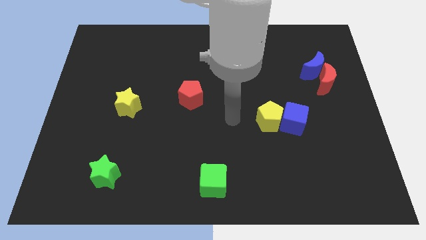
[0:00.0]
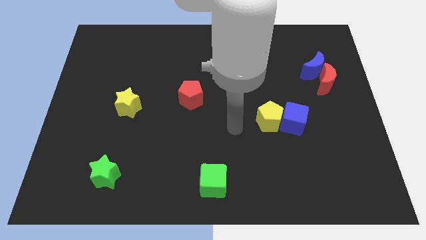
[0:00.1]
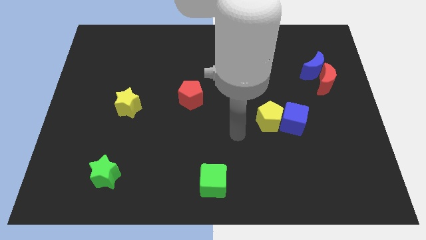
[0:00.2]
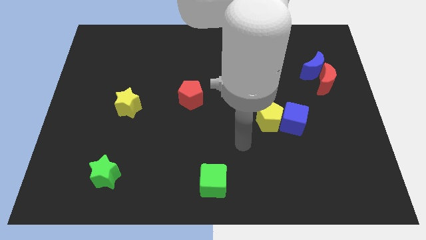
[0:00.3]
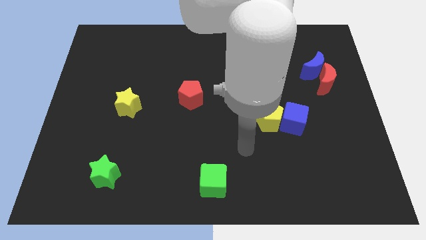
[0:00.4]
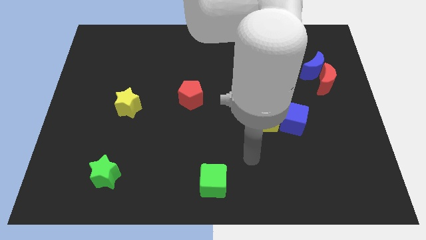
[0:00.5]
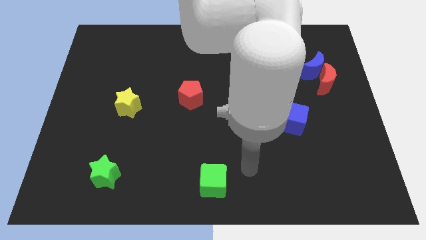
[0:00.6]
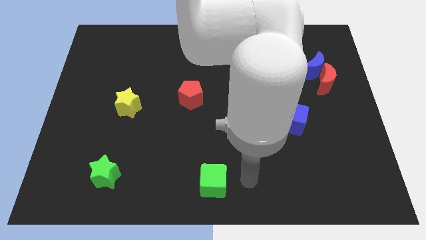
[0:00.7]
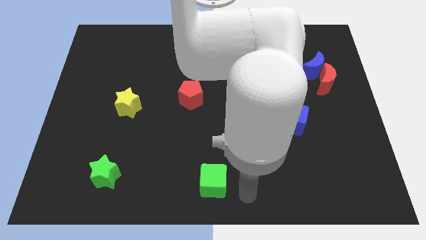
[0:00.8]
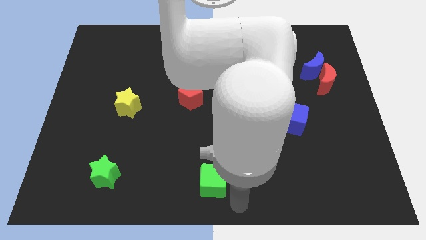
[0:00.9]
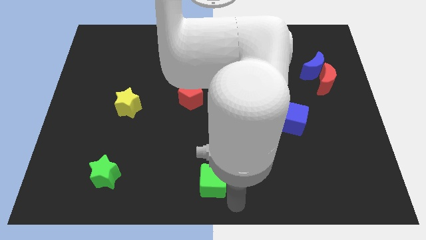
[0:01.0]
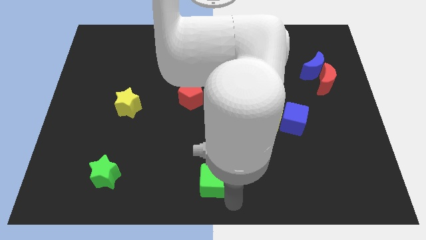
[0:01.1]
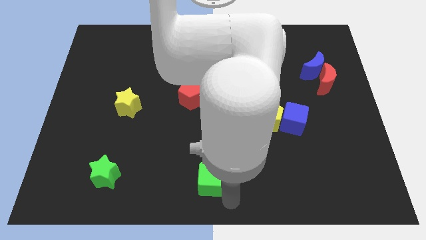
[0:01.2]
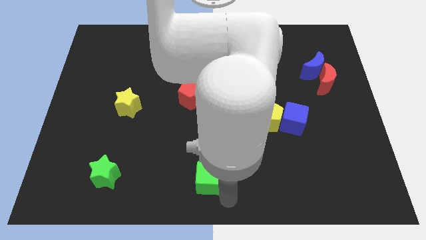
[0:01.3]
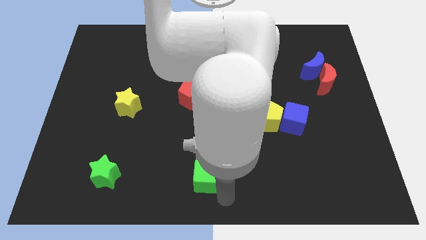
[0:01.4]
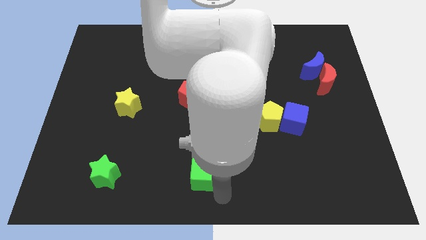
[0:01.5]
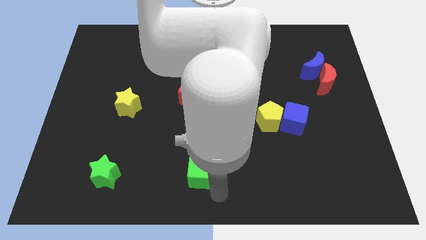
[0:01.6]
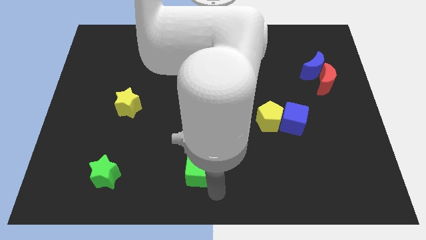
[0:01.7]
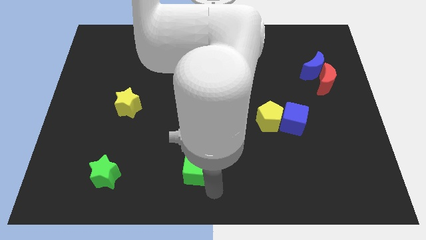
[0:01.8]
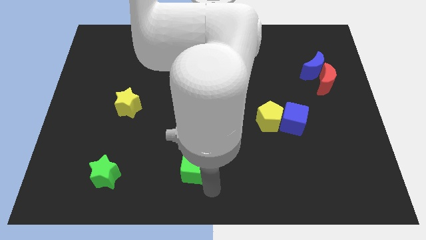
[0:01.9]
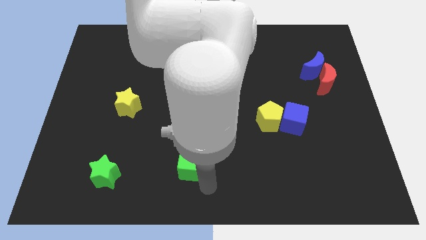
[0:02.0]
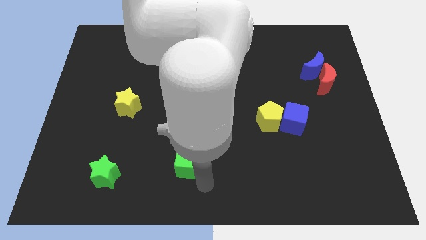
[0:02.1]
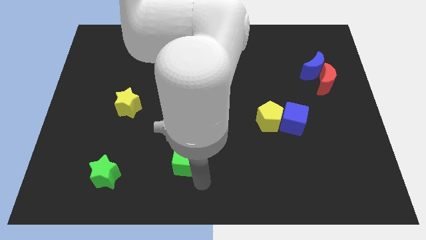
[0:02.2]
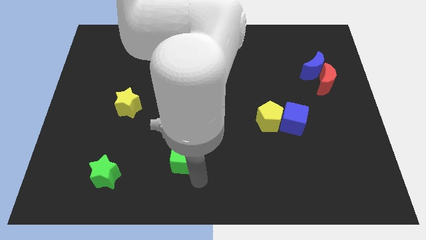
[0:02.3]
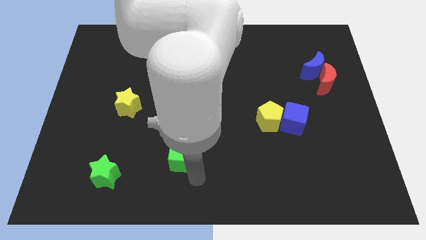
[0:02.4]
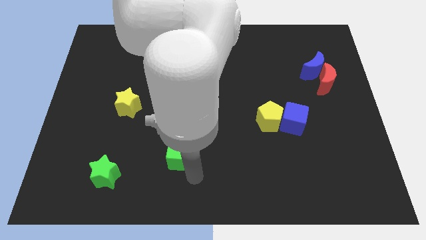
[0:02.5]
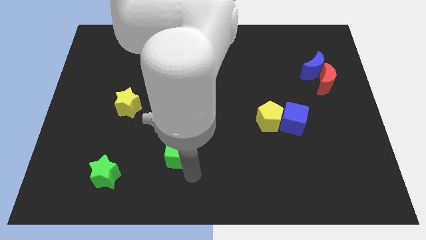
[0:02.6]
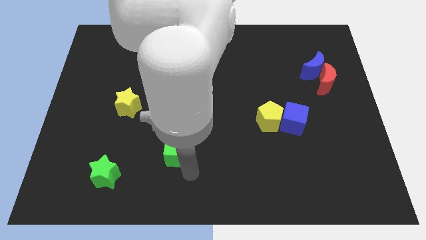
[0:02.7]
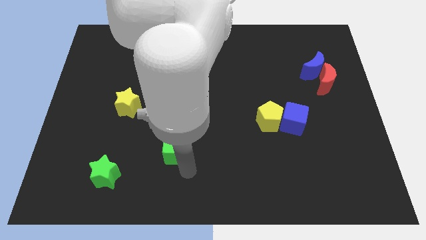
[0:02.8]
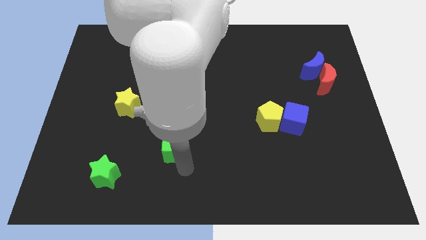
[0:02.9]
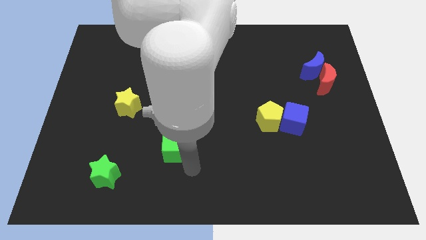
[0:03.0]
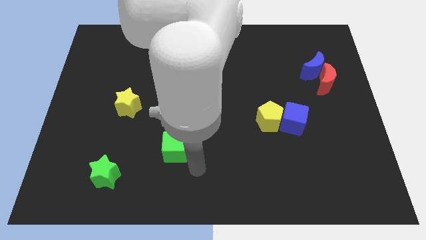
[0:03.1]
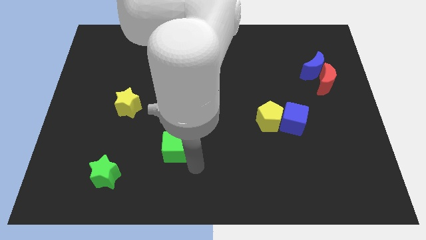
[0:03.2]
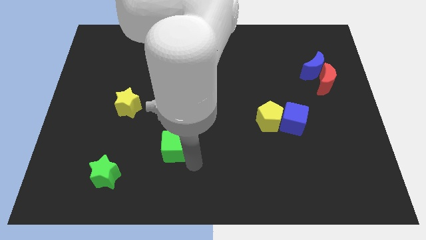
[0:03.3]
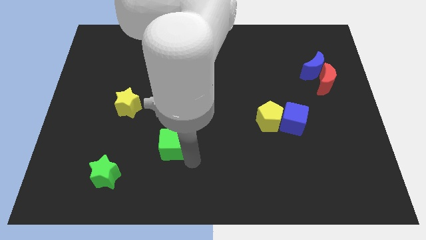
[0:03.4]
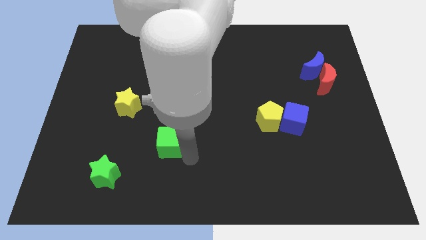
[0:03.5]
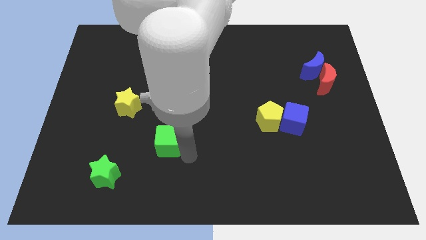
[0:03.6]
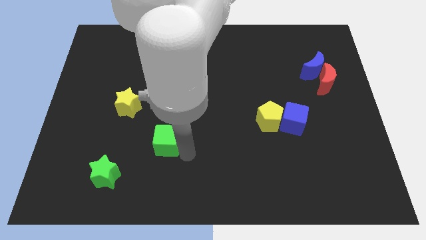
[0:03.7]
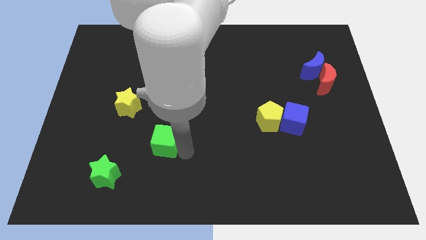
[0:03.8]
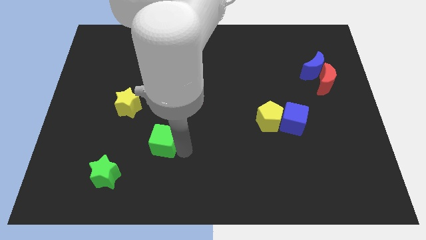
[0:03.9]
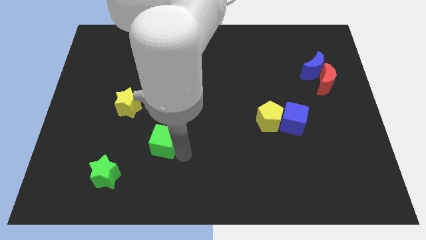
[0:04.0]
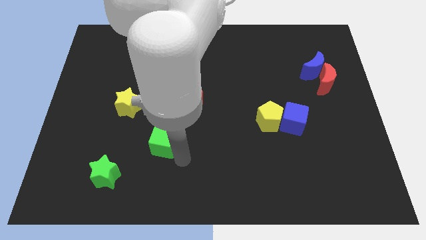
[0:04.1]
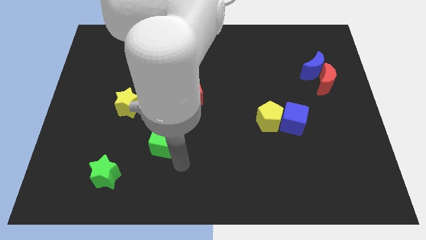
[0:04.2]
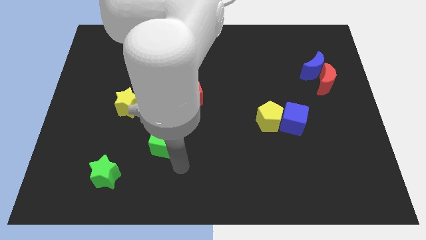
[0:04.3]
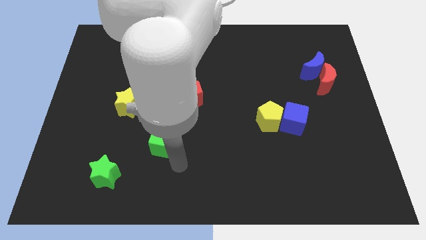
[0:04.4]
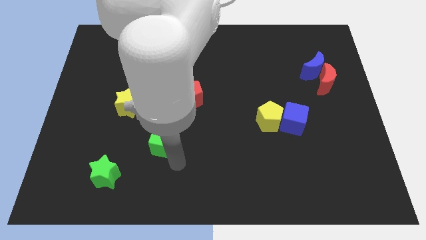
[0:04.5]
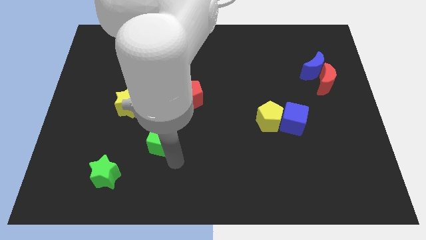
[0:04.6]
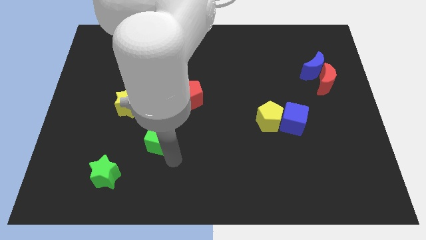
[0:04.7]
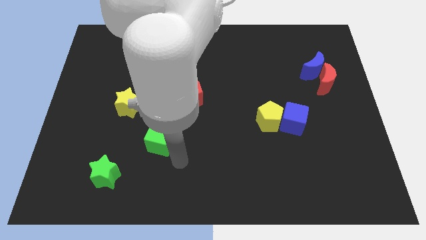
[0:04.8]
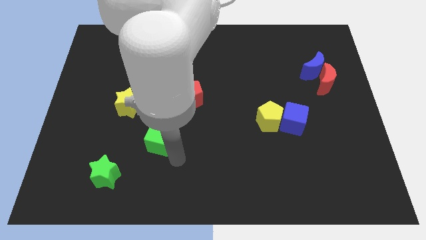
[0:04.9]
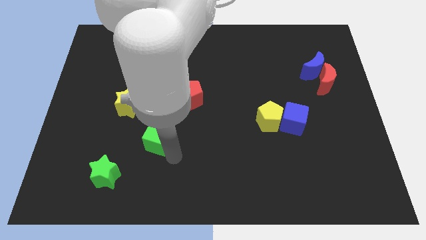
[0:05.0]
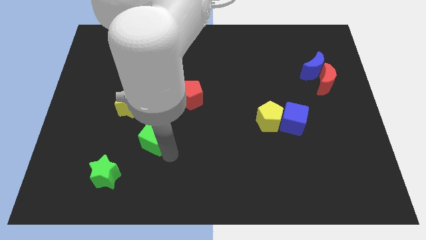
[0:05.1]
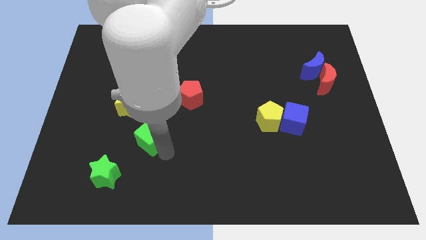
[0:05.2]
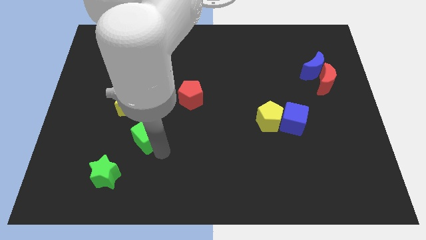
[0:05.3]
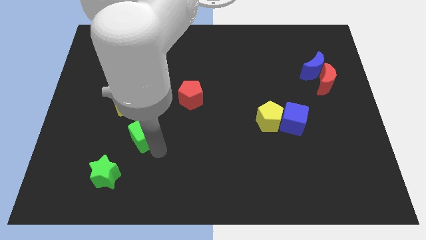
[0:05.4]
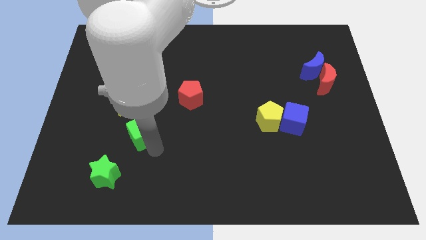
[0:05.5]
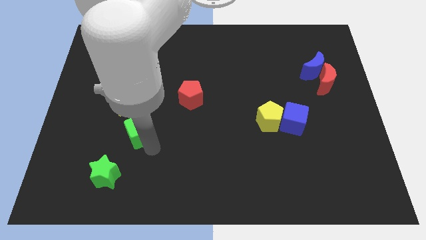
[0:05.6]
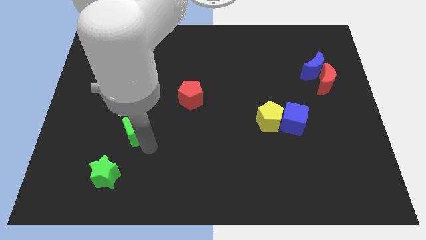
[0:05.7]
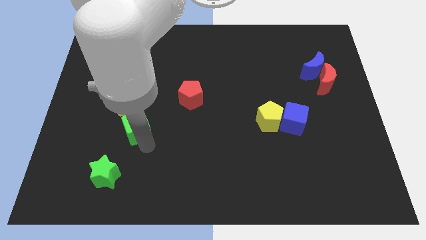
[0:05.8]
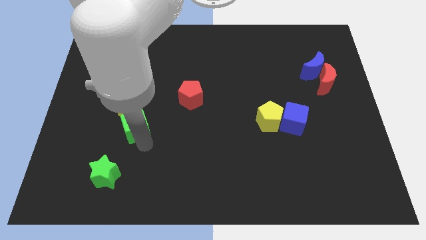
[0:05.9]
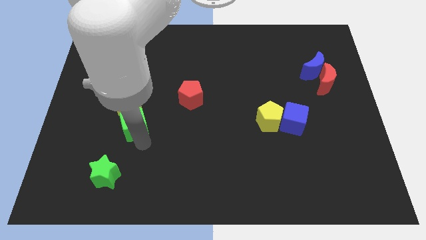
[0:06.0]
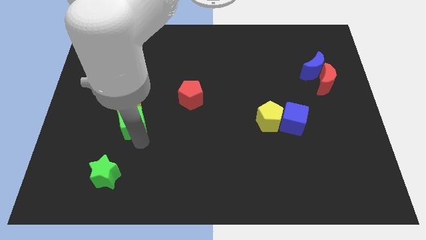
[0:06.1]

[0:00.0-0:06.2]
put the green cube close to the yellow star
